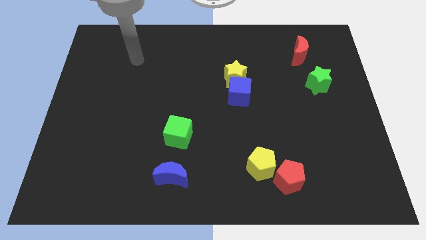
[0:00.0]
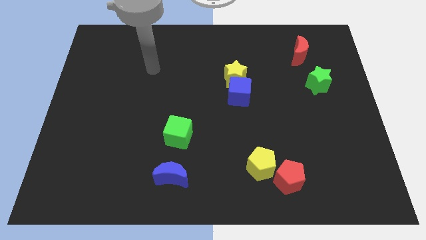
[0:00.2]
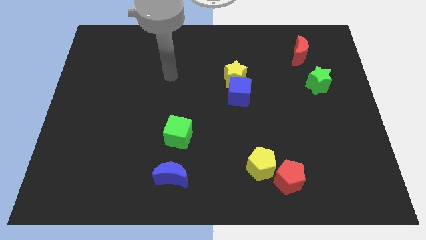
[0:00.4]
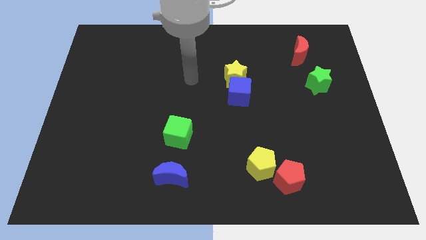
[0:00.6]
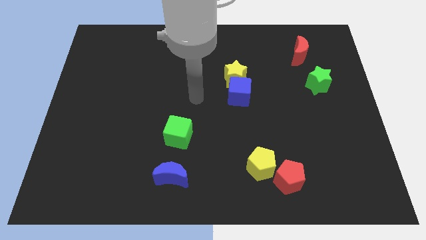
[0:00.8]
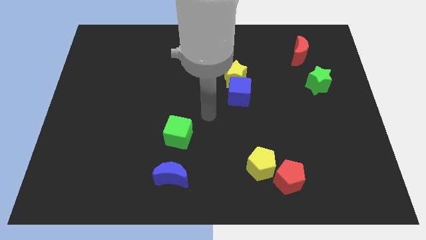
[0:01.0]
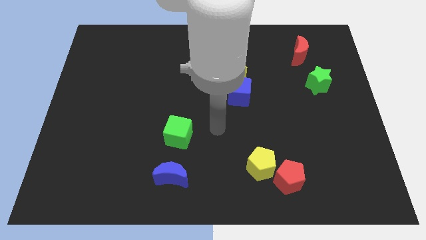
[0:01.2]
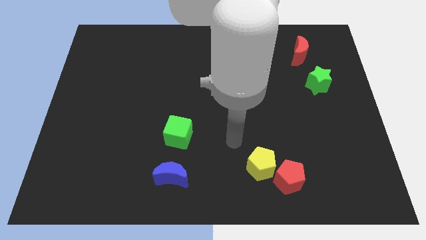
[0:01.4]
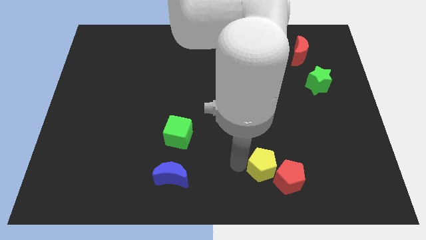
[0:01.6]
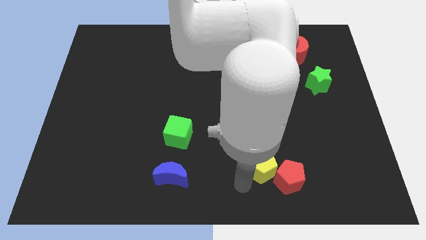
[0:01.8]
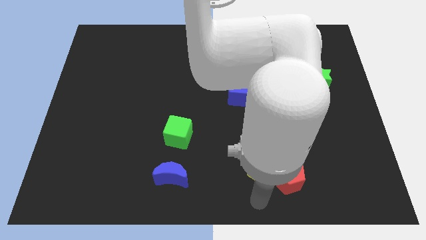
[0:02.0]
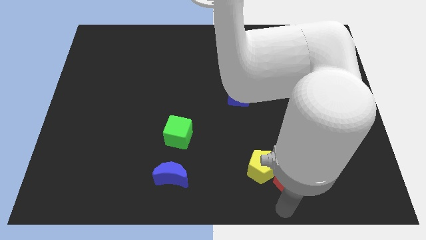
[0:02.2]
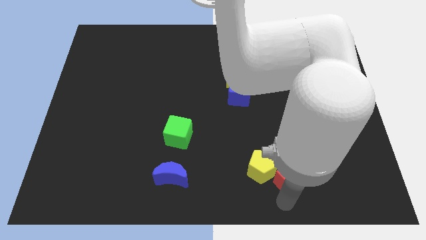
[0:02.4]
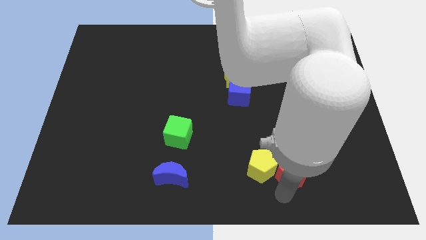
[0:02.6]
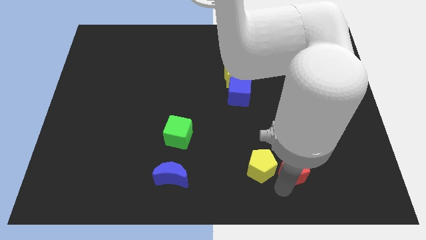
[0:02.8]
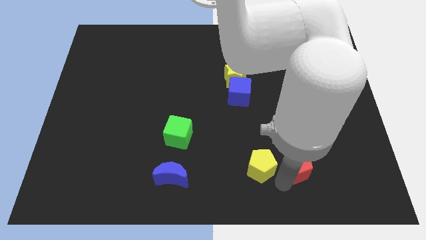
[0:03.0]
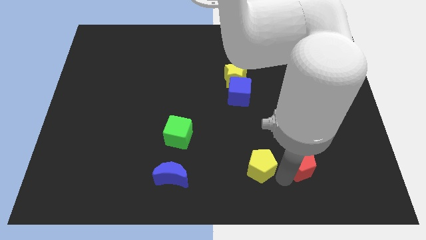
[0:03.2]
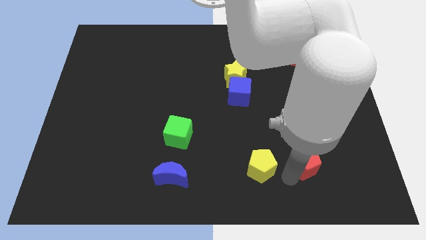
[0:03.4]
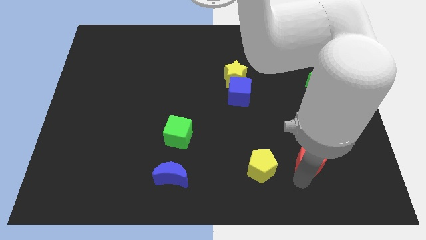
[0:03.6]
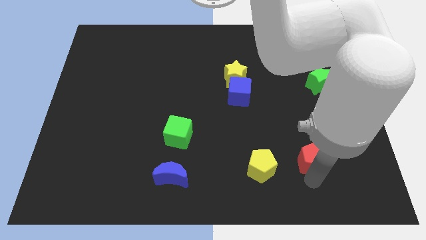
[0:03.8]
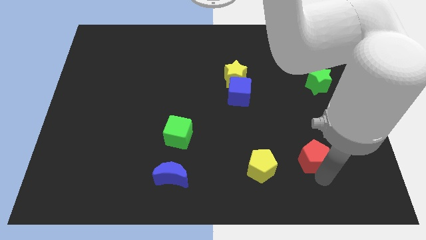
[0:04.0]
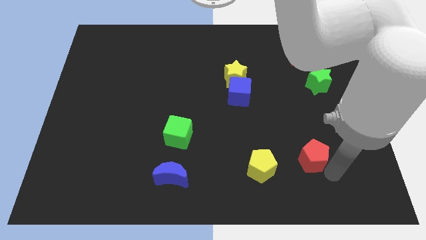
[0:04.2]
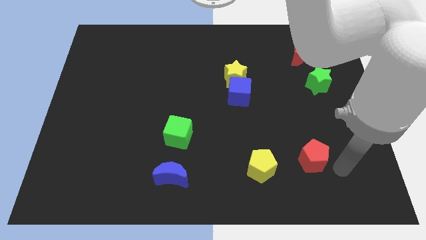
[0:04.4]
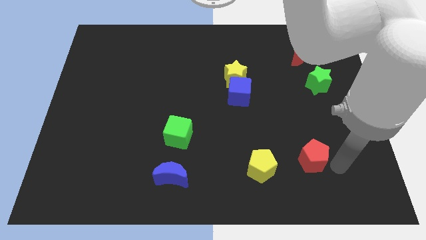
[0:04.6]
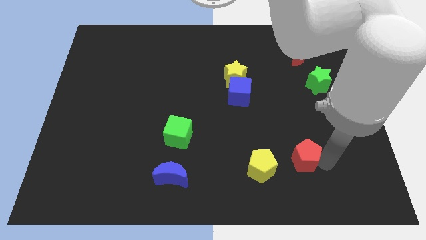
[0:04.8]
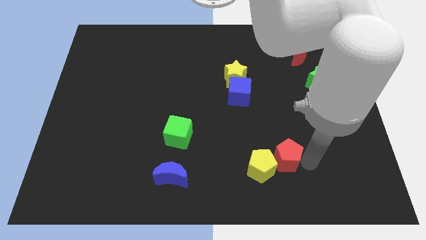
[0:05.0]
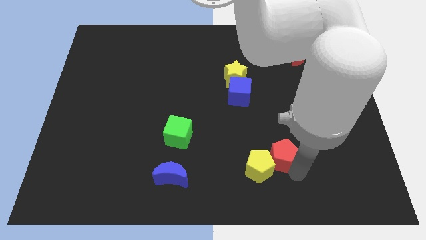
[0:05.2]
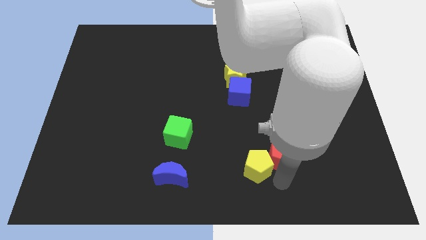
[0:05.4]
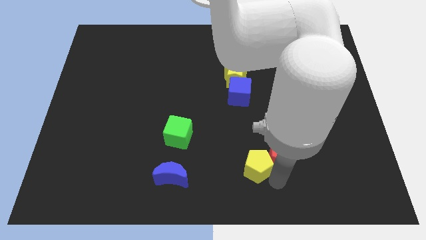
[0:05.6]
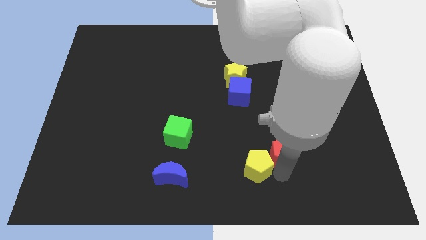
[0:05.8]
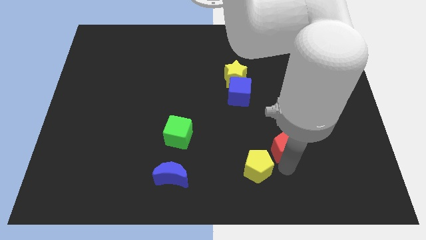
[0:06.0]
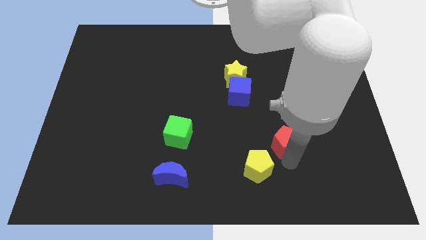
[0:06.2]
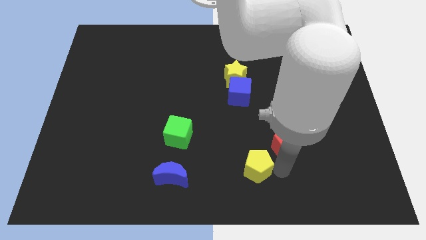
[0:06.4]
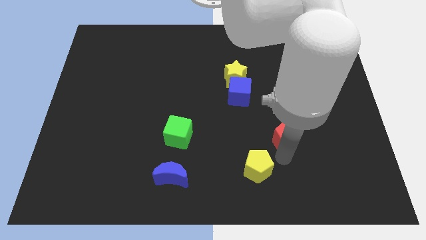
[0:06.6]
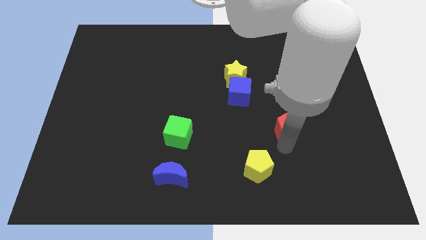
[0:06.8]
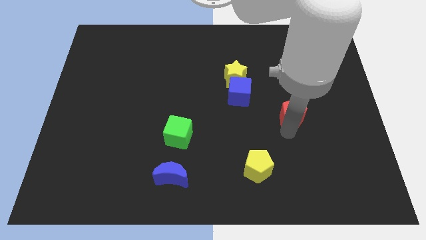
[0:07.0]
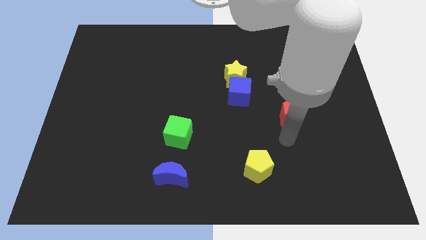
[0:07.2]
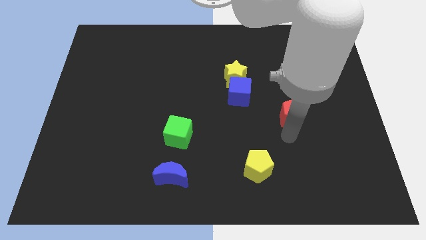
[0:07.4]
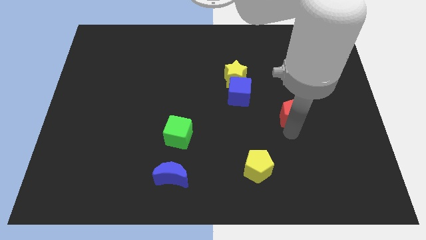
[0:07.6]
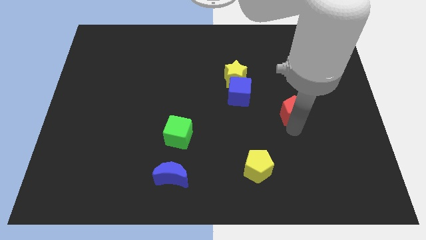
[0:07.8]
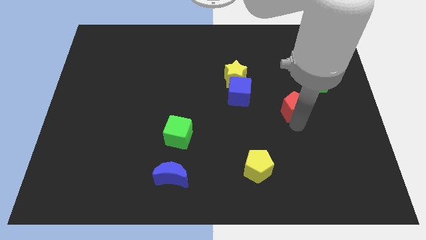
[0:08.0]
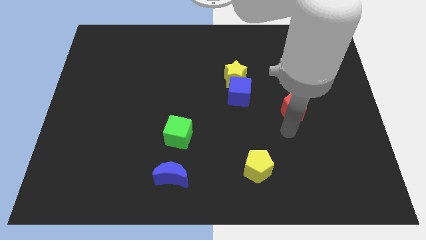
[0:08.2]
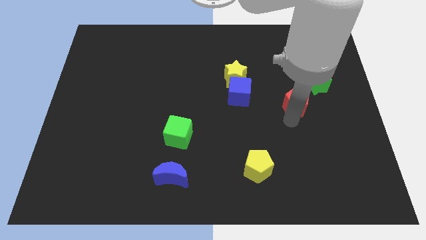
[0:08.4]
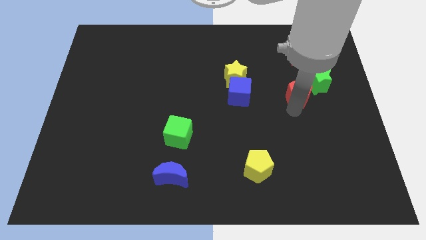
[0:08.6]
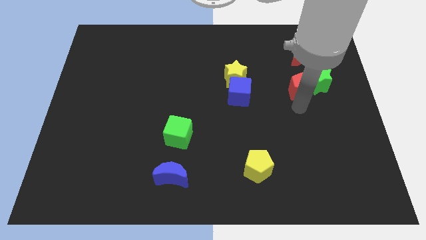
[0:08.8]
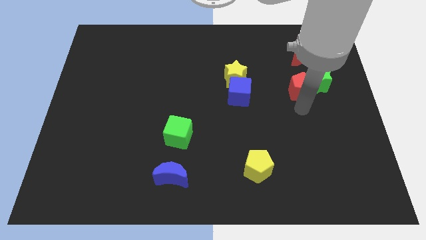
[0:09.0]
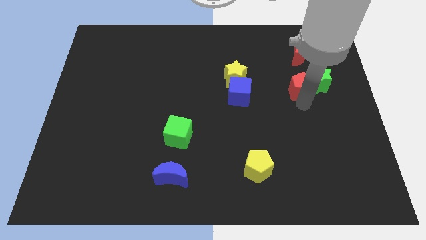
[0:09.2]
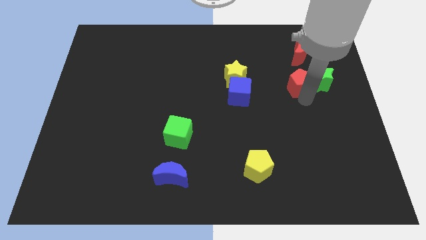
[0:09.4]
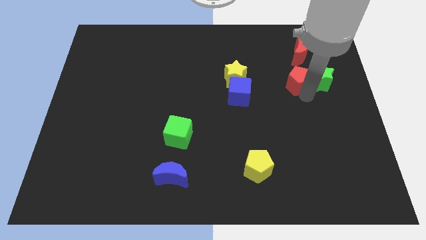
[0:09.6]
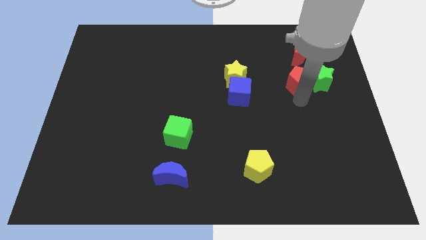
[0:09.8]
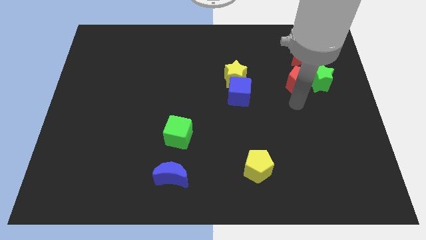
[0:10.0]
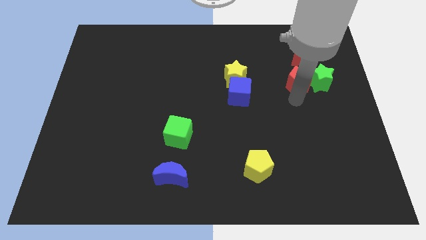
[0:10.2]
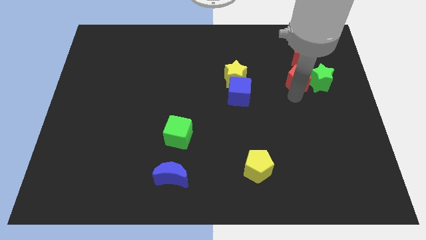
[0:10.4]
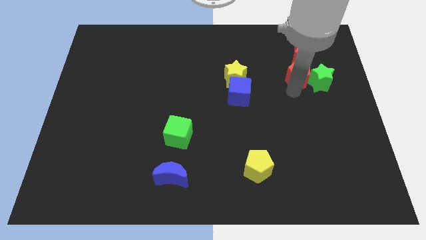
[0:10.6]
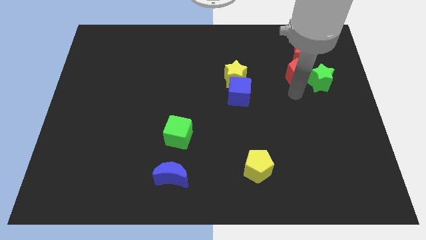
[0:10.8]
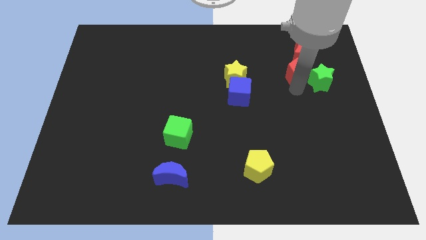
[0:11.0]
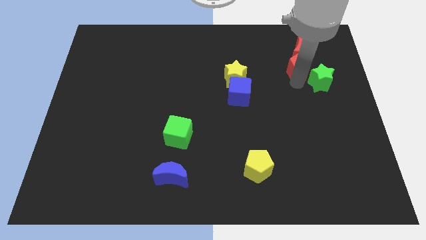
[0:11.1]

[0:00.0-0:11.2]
move the red pentagon towards the red moon

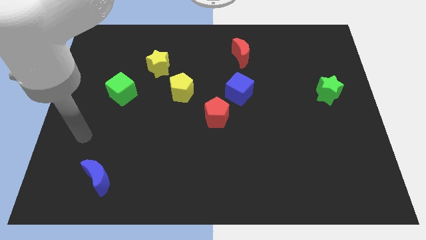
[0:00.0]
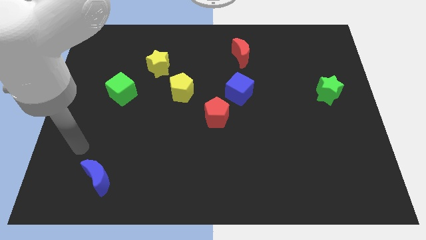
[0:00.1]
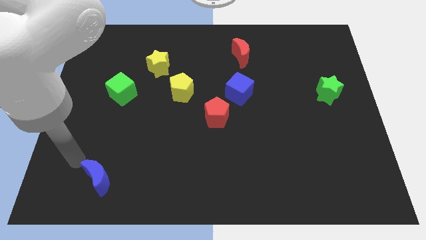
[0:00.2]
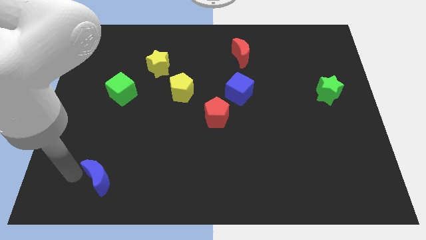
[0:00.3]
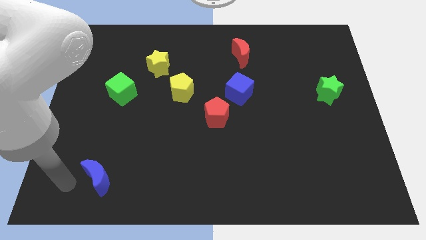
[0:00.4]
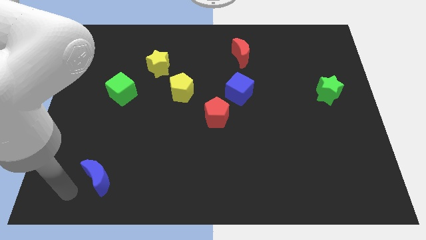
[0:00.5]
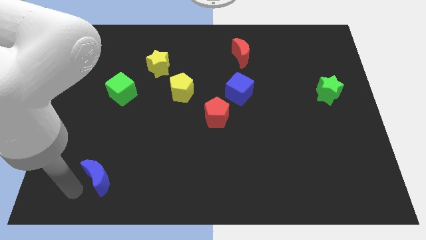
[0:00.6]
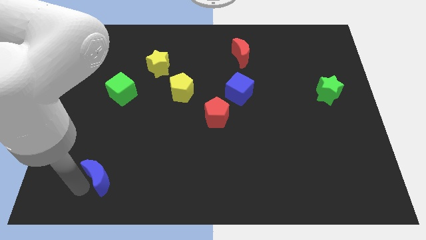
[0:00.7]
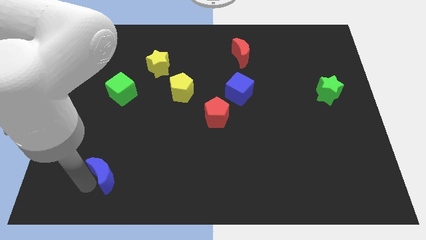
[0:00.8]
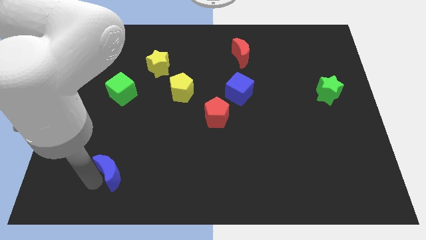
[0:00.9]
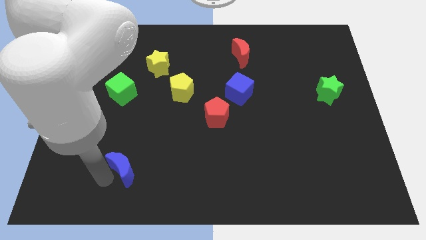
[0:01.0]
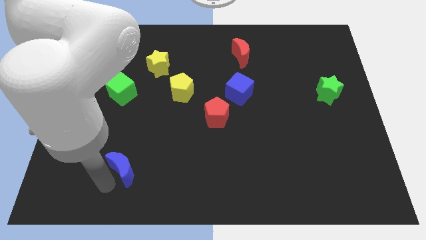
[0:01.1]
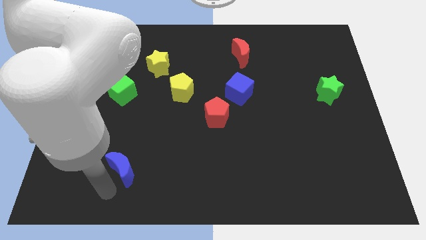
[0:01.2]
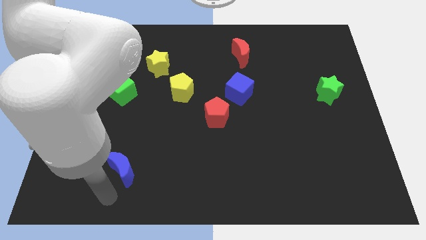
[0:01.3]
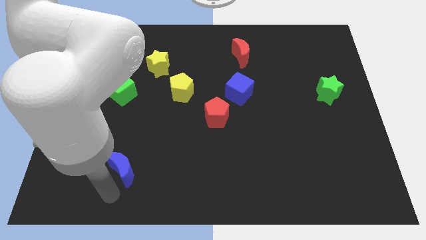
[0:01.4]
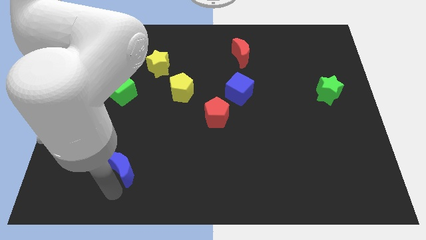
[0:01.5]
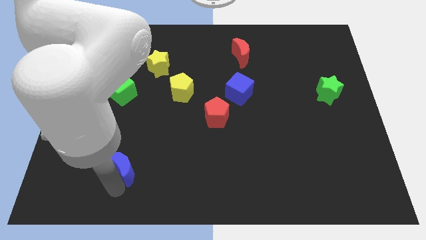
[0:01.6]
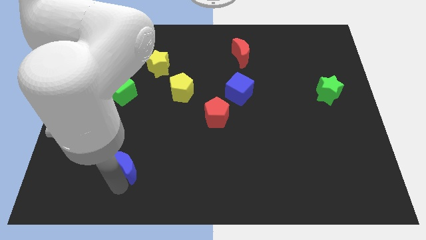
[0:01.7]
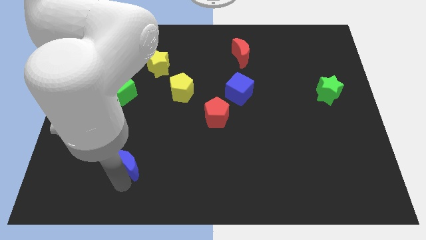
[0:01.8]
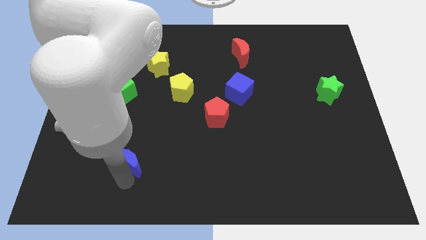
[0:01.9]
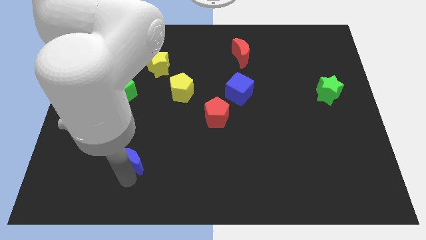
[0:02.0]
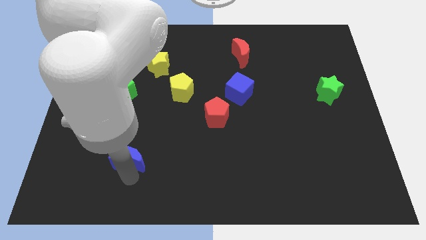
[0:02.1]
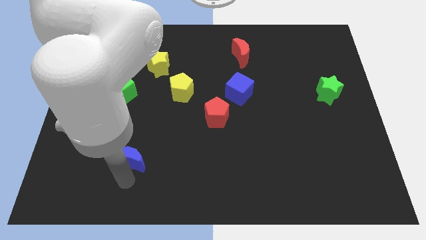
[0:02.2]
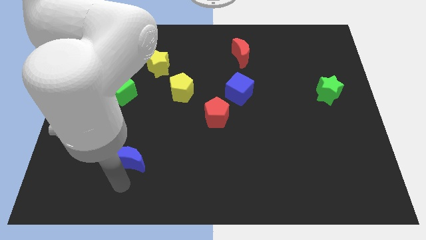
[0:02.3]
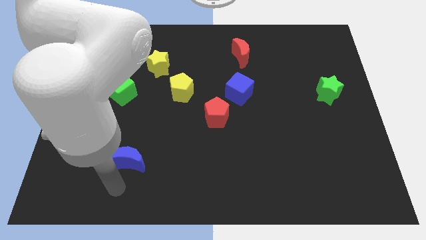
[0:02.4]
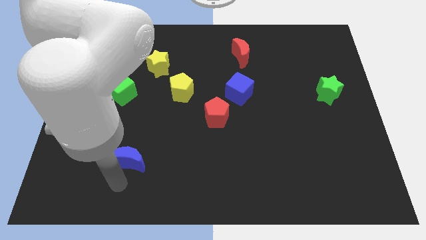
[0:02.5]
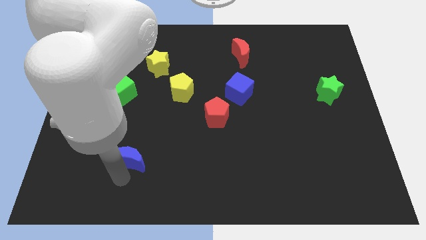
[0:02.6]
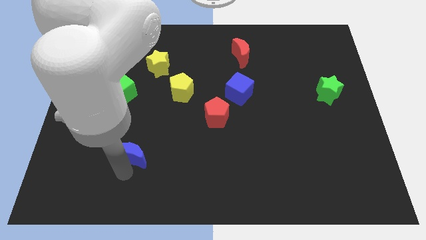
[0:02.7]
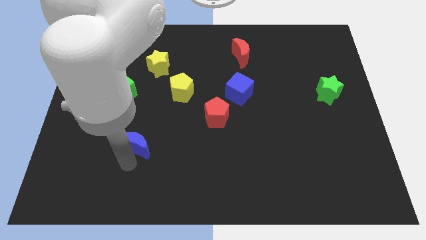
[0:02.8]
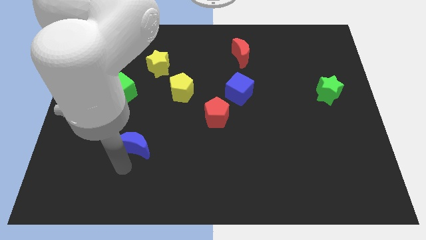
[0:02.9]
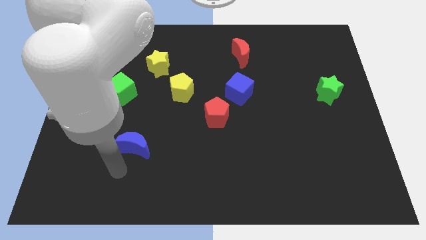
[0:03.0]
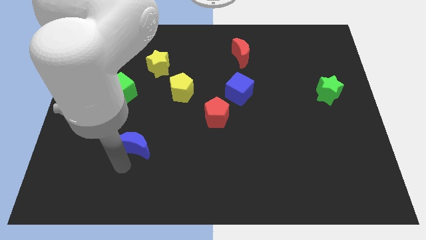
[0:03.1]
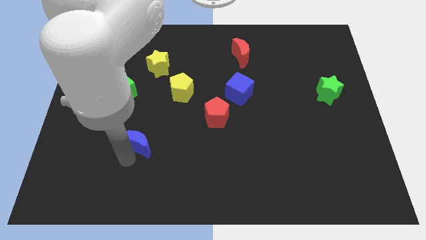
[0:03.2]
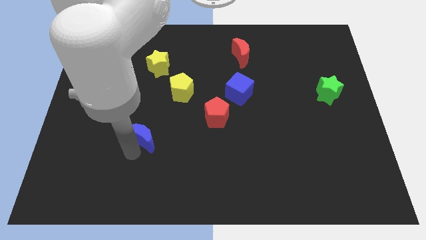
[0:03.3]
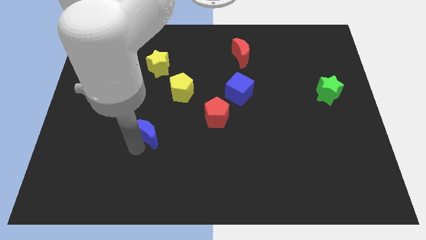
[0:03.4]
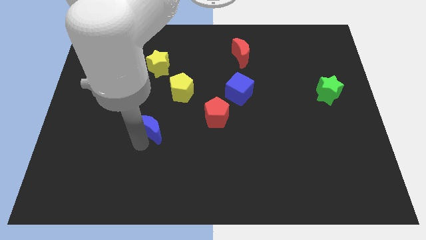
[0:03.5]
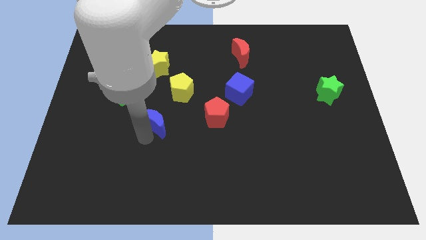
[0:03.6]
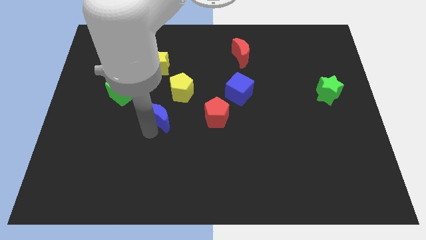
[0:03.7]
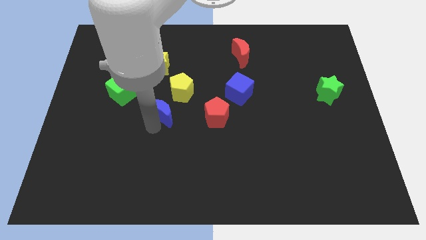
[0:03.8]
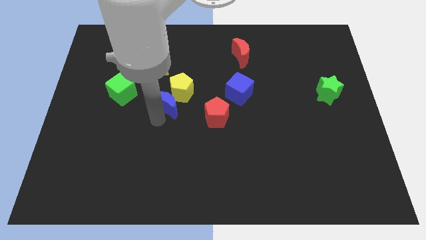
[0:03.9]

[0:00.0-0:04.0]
slide the blue moon towards the yellow pentagon
